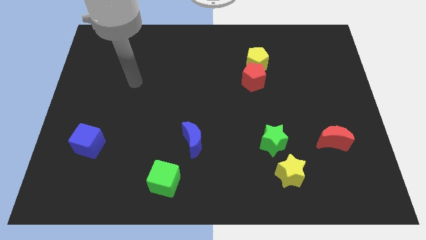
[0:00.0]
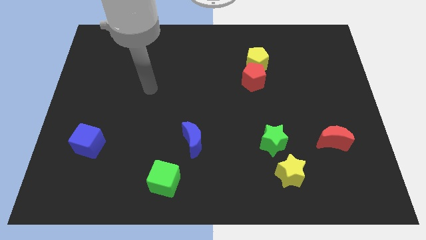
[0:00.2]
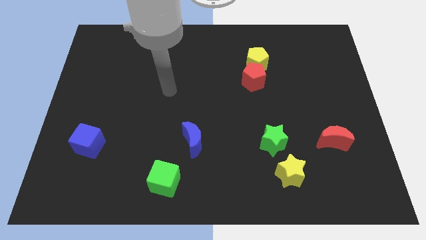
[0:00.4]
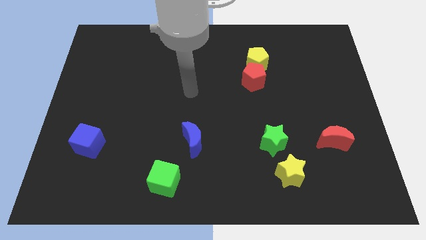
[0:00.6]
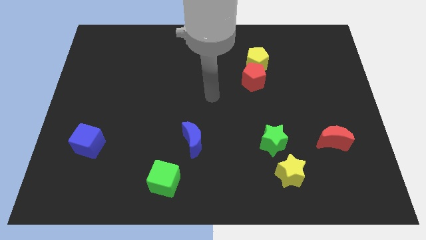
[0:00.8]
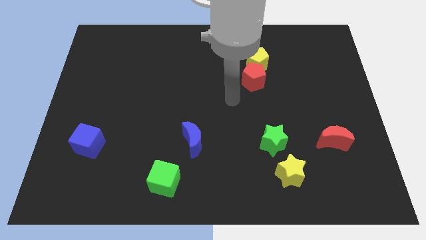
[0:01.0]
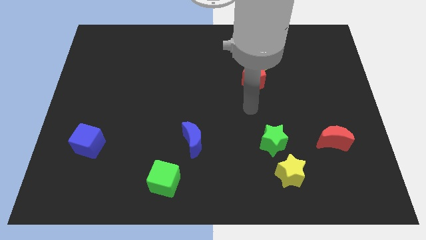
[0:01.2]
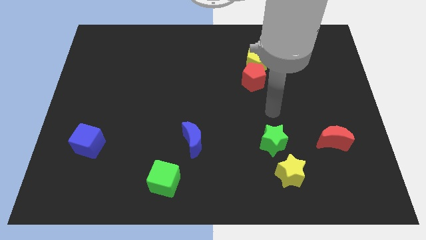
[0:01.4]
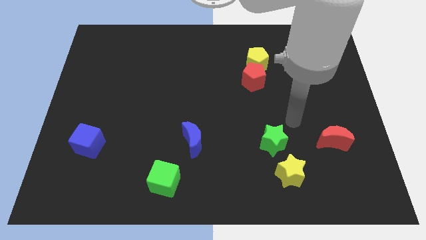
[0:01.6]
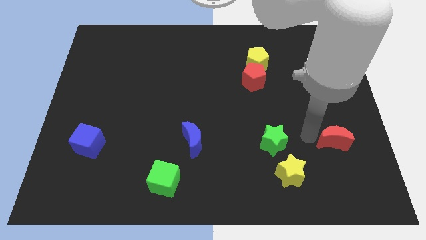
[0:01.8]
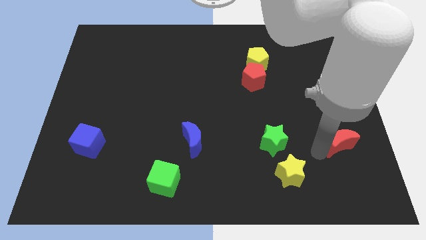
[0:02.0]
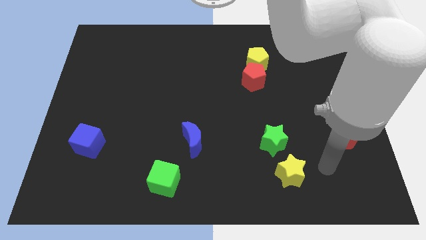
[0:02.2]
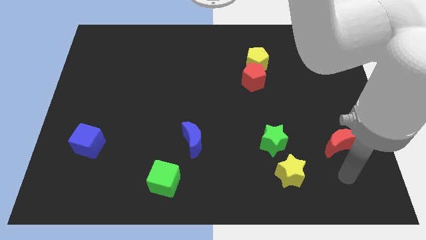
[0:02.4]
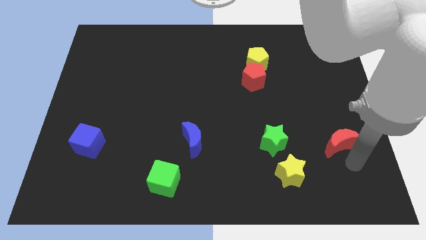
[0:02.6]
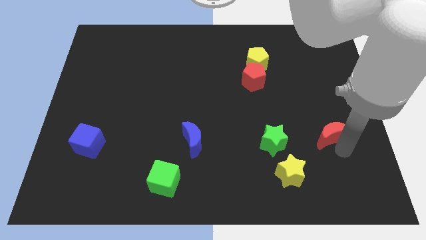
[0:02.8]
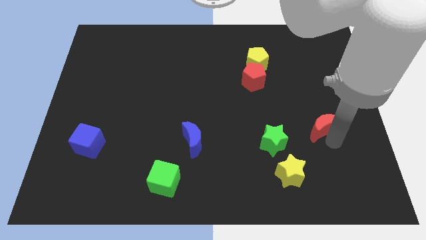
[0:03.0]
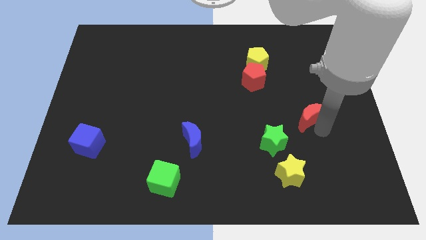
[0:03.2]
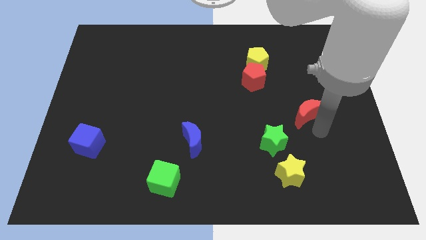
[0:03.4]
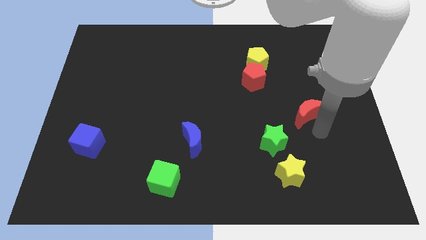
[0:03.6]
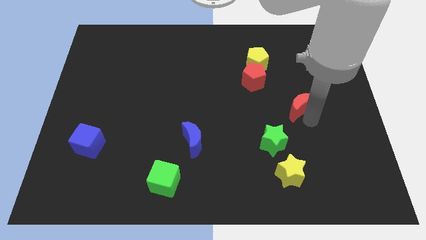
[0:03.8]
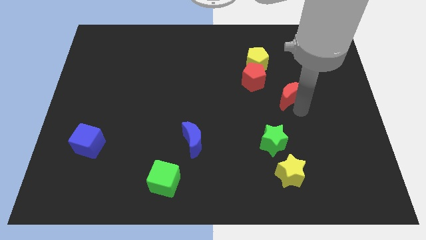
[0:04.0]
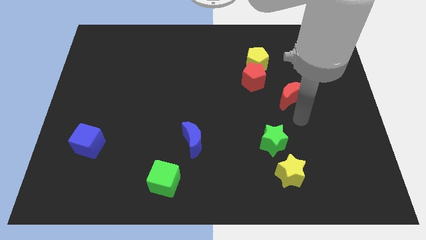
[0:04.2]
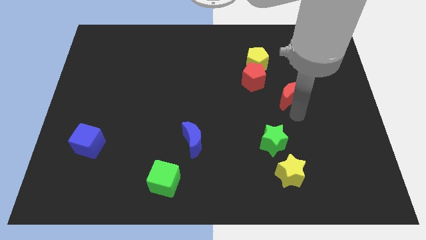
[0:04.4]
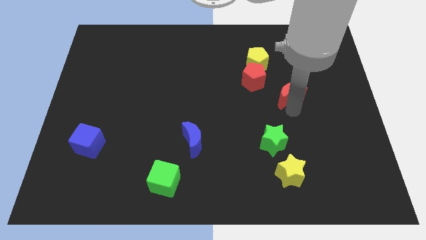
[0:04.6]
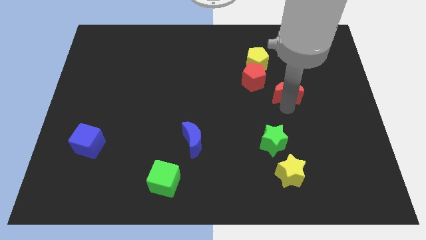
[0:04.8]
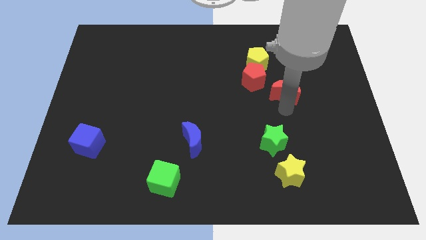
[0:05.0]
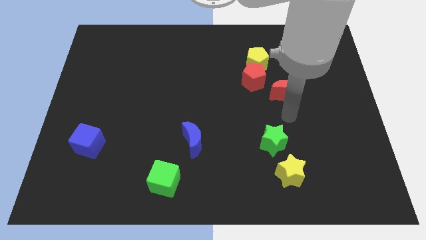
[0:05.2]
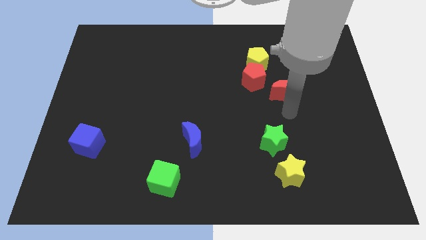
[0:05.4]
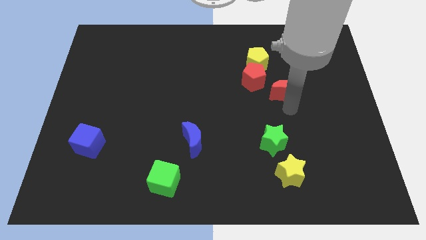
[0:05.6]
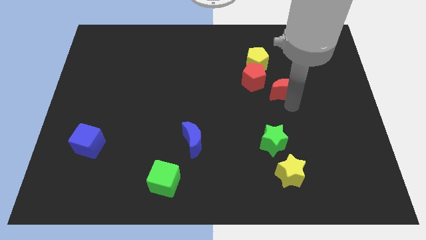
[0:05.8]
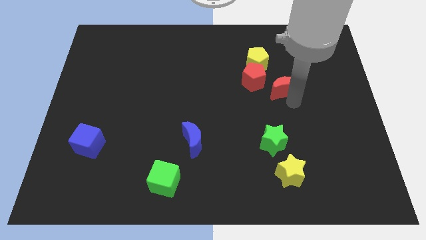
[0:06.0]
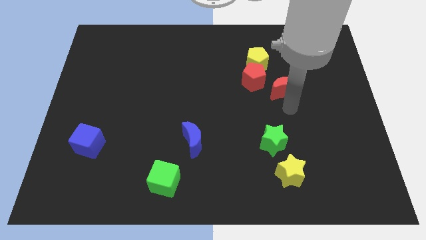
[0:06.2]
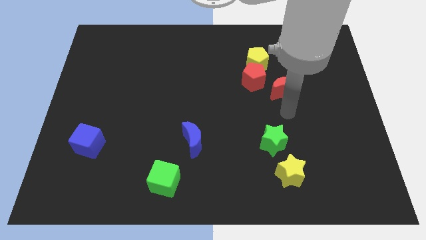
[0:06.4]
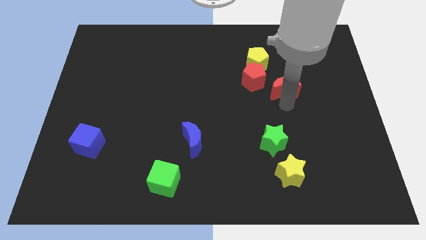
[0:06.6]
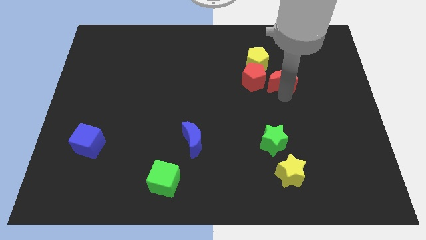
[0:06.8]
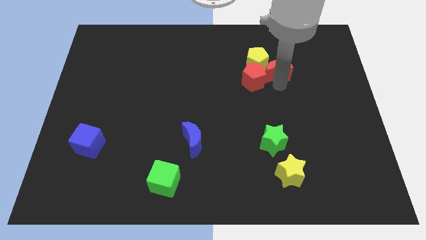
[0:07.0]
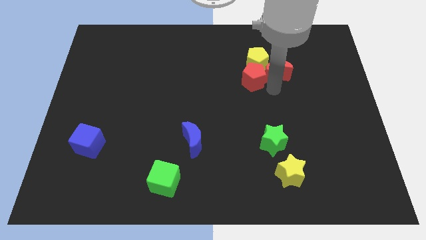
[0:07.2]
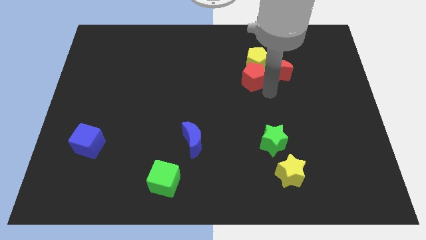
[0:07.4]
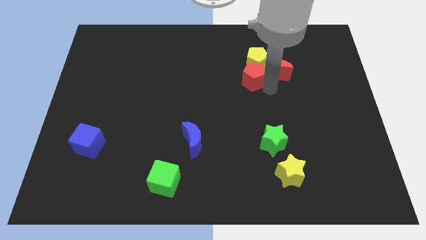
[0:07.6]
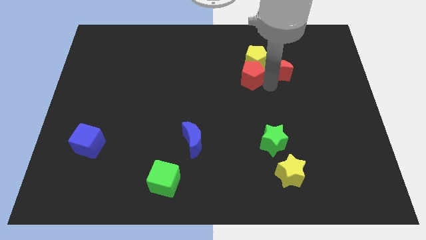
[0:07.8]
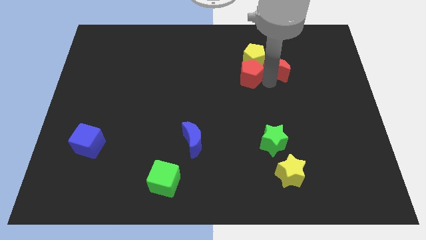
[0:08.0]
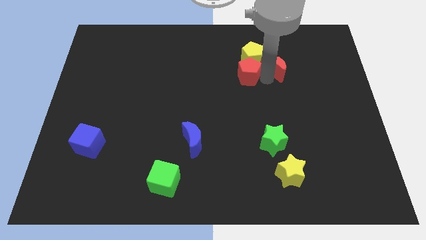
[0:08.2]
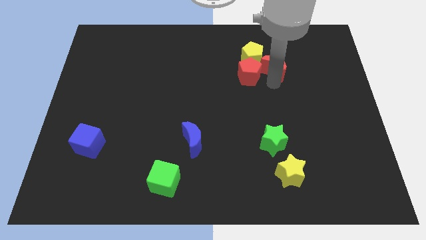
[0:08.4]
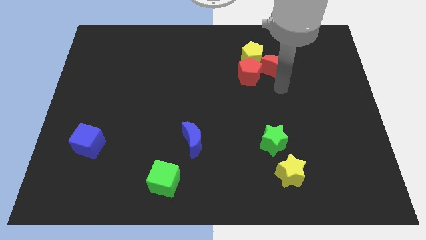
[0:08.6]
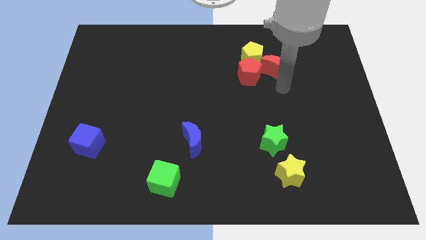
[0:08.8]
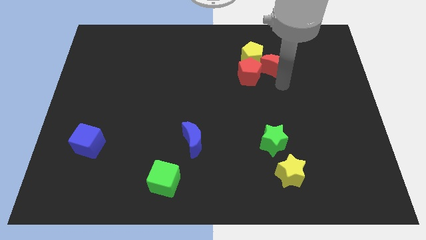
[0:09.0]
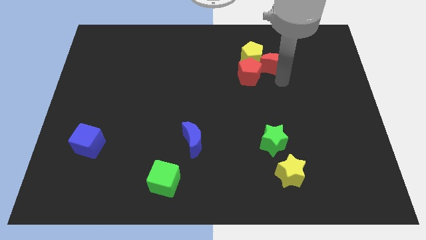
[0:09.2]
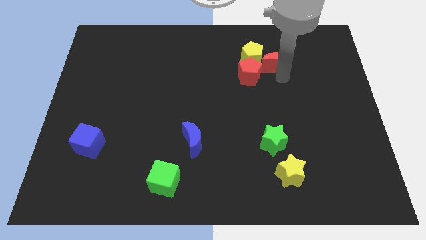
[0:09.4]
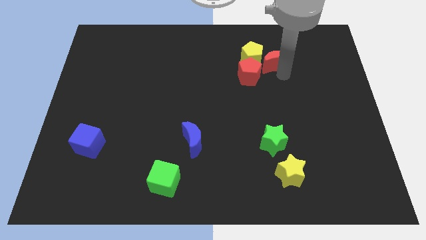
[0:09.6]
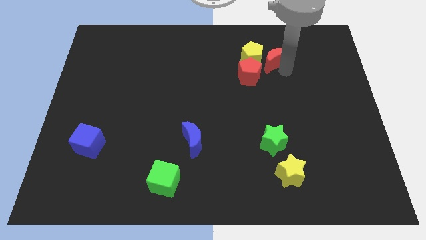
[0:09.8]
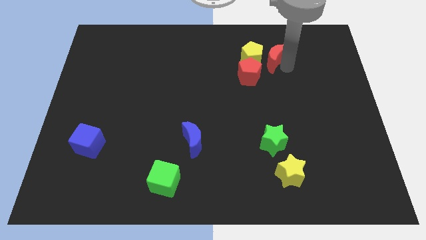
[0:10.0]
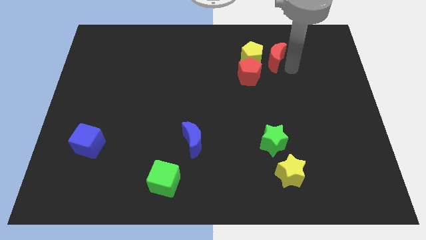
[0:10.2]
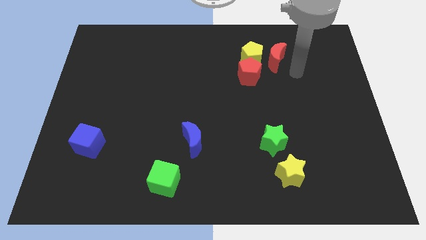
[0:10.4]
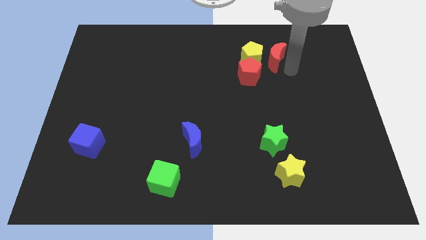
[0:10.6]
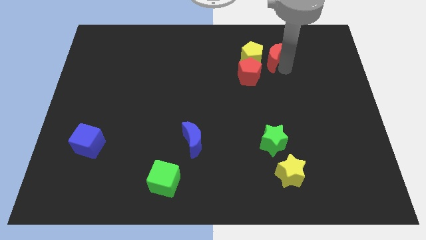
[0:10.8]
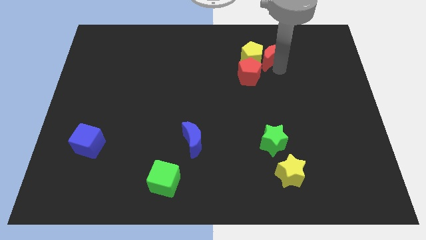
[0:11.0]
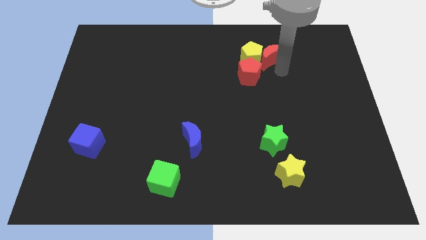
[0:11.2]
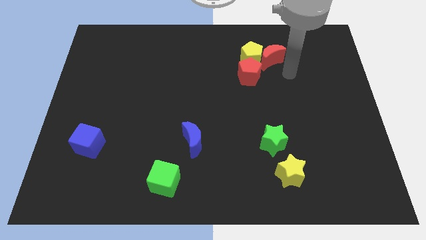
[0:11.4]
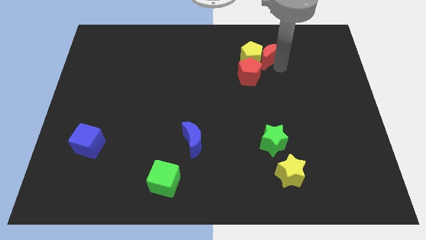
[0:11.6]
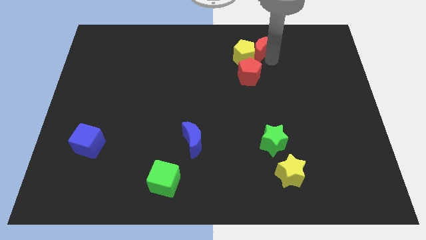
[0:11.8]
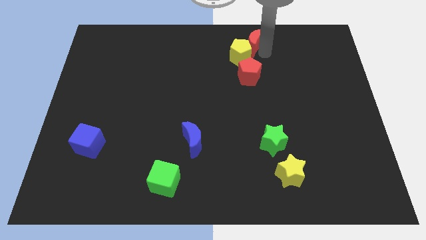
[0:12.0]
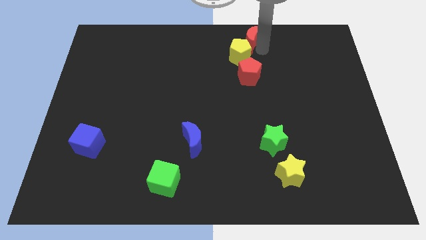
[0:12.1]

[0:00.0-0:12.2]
slide the red moon to the towards your base

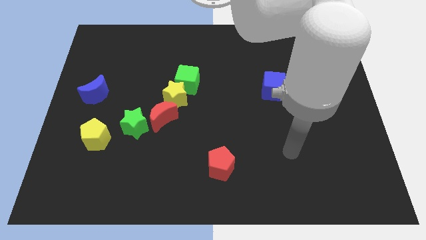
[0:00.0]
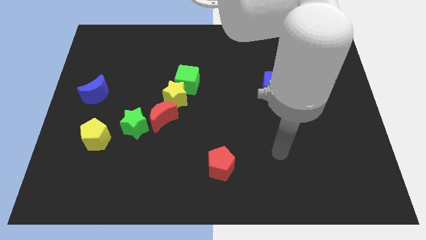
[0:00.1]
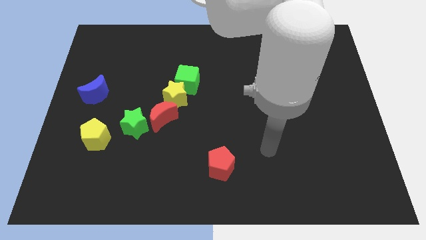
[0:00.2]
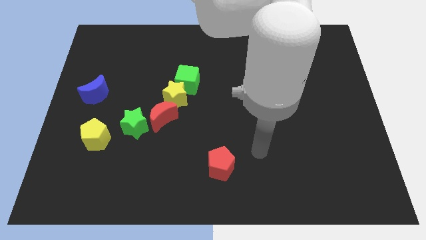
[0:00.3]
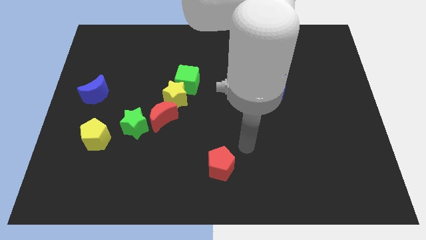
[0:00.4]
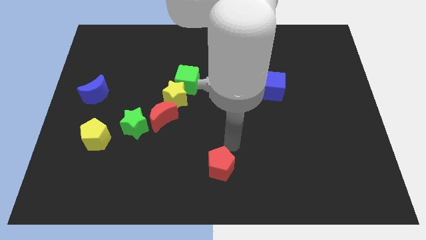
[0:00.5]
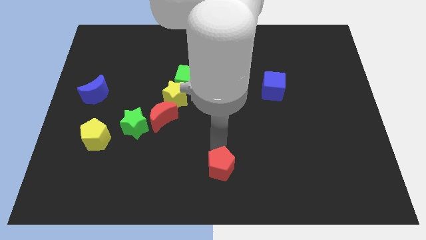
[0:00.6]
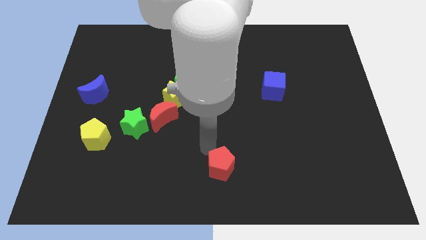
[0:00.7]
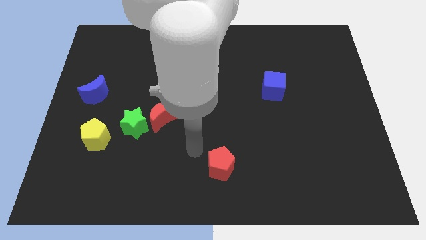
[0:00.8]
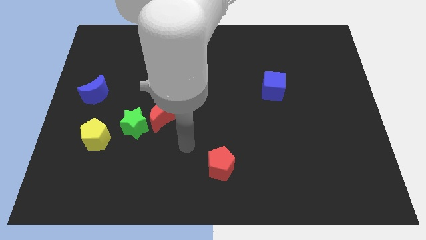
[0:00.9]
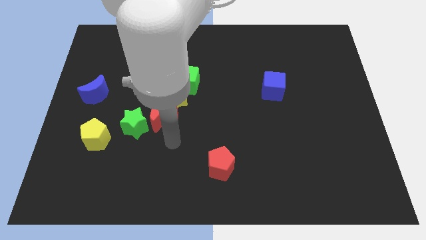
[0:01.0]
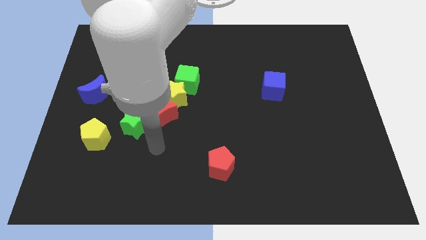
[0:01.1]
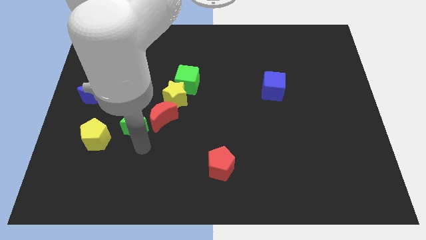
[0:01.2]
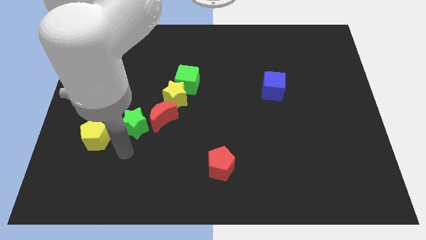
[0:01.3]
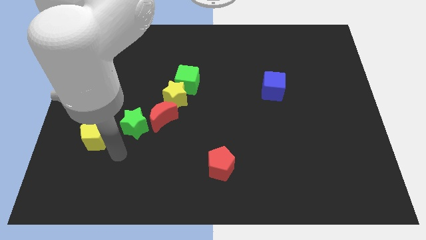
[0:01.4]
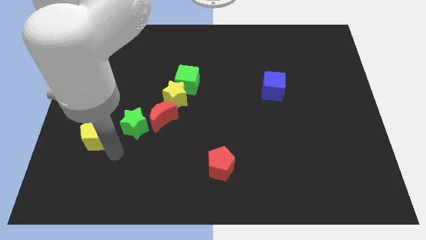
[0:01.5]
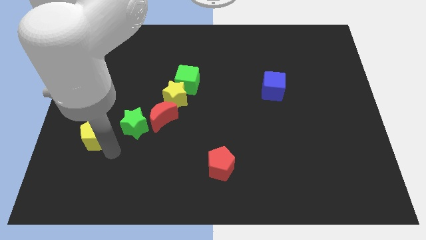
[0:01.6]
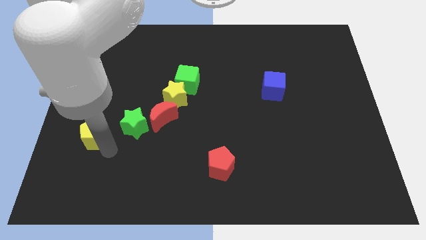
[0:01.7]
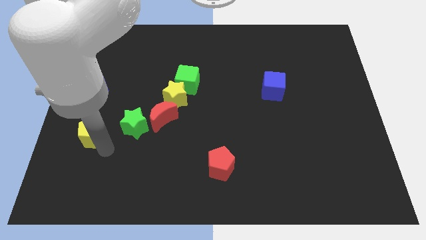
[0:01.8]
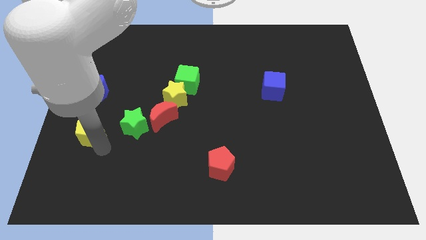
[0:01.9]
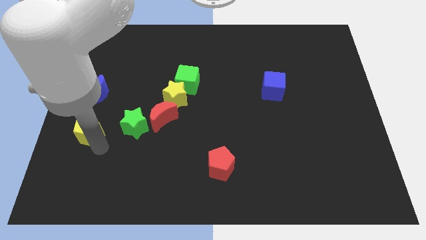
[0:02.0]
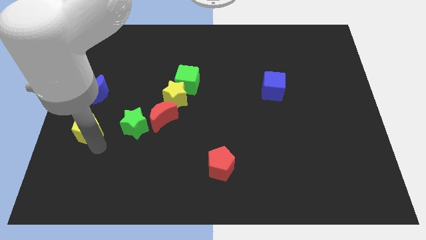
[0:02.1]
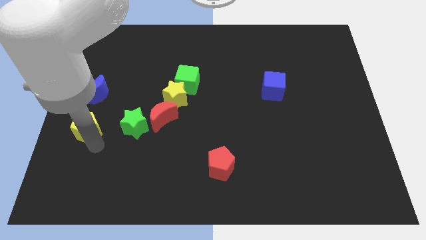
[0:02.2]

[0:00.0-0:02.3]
push the yellow pentagon to the center left
